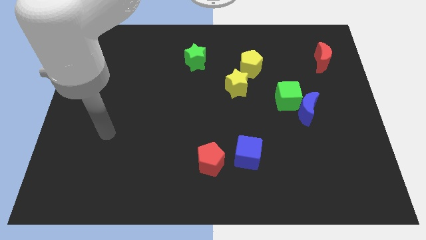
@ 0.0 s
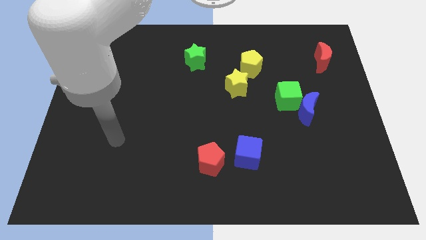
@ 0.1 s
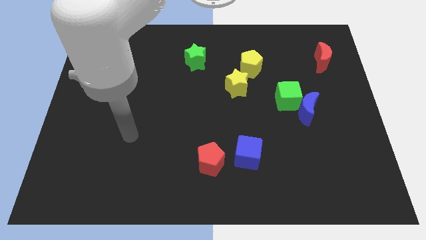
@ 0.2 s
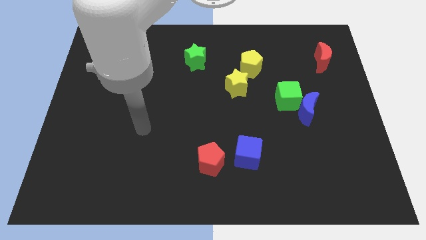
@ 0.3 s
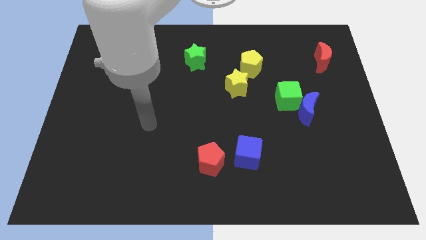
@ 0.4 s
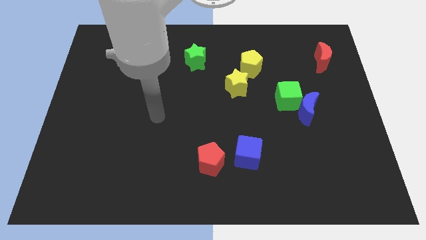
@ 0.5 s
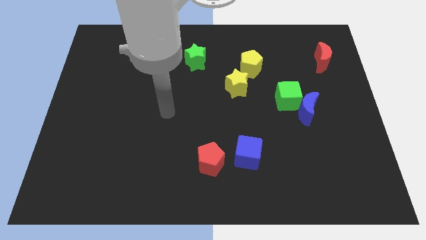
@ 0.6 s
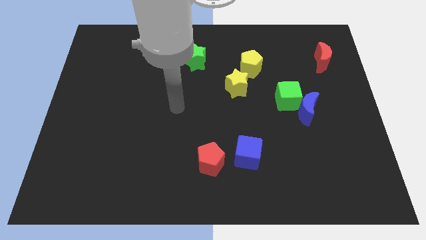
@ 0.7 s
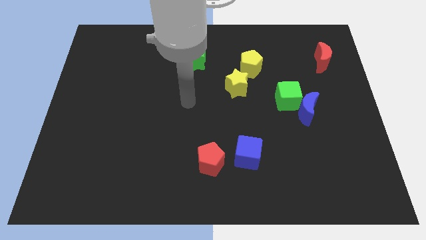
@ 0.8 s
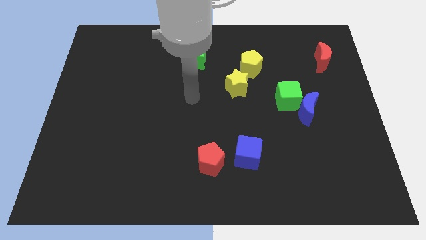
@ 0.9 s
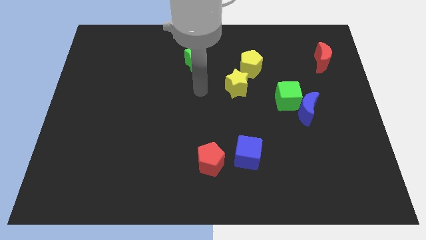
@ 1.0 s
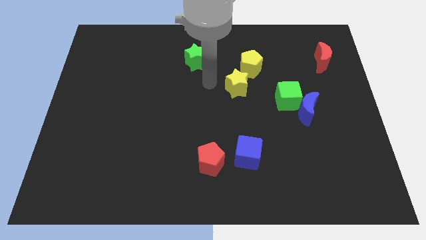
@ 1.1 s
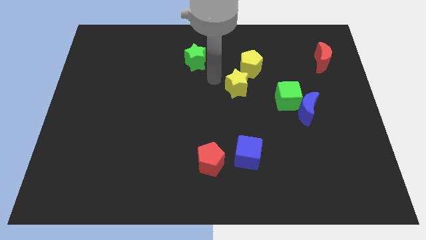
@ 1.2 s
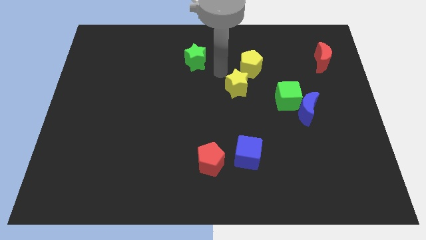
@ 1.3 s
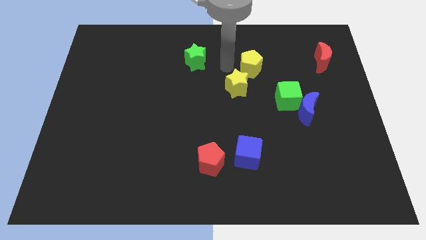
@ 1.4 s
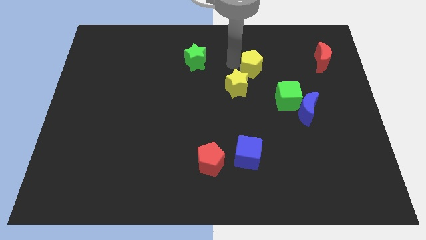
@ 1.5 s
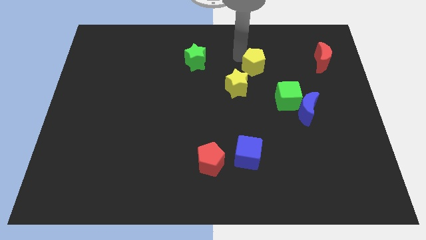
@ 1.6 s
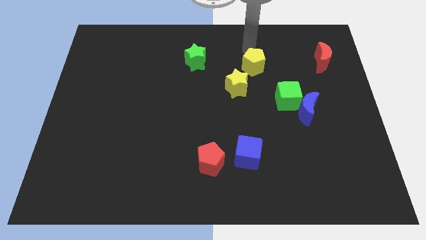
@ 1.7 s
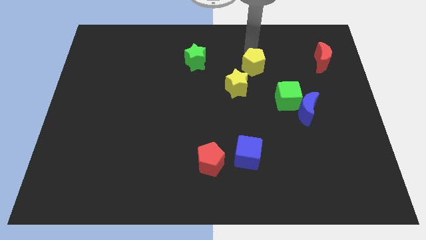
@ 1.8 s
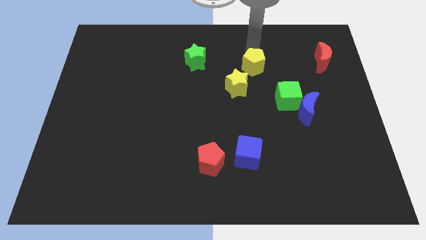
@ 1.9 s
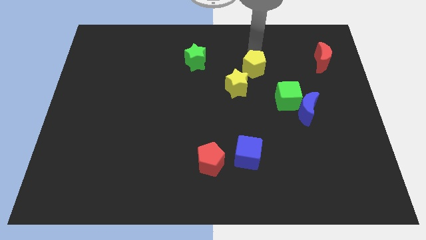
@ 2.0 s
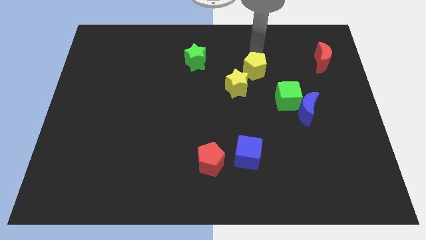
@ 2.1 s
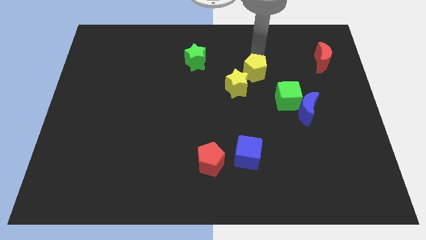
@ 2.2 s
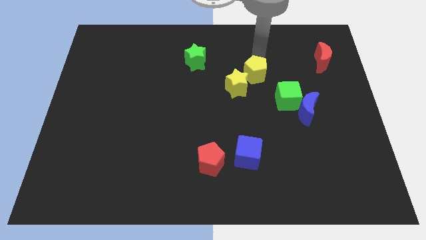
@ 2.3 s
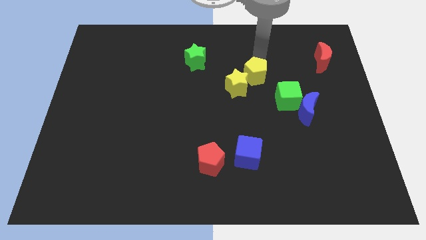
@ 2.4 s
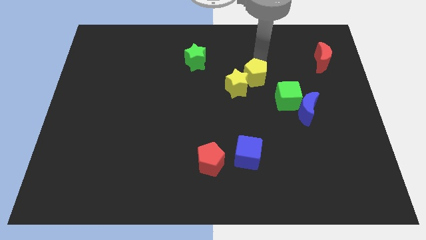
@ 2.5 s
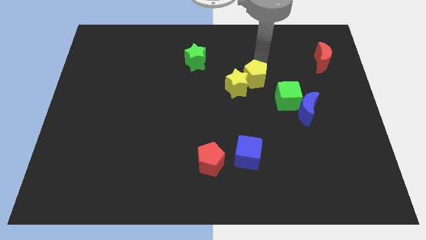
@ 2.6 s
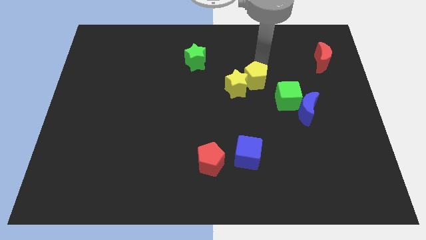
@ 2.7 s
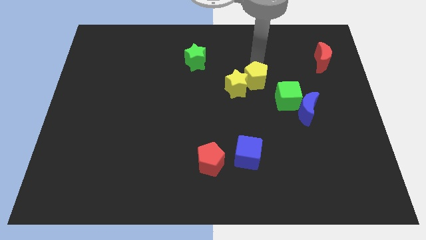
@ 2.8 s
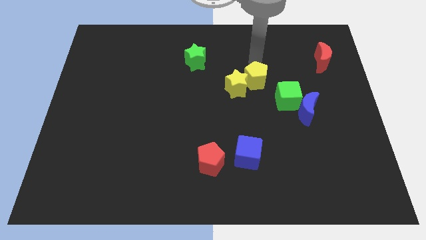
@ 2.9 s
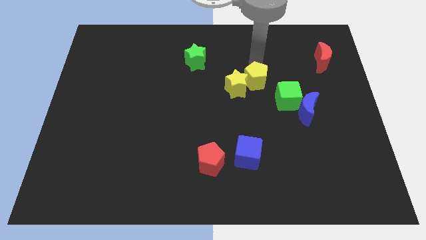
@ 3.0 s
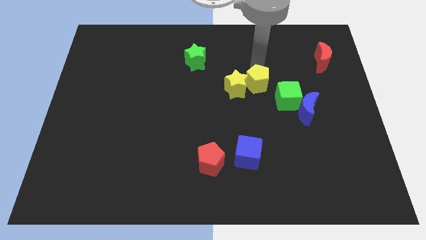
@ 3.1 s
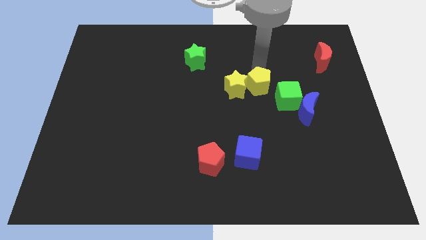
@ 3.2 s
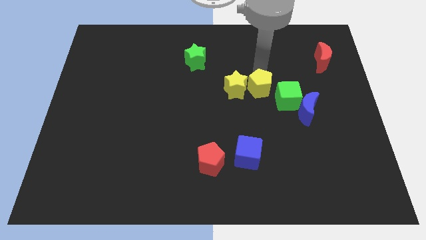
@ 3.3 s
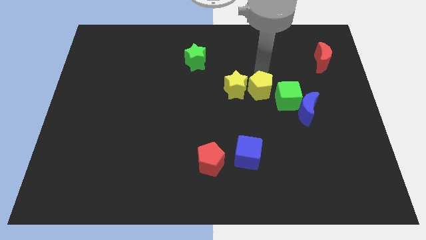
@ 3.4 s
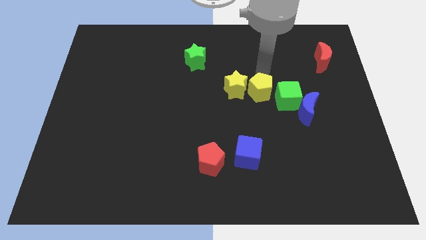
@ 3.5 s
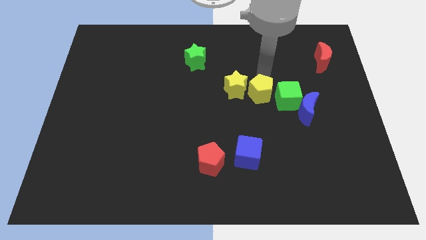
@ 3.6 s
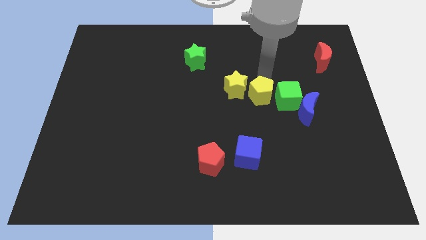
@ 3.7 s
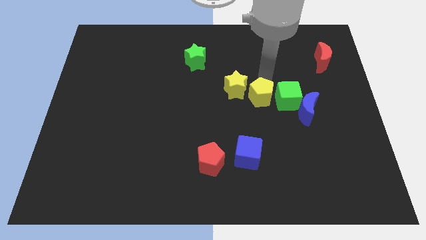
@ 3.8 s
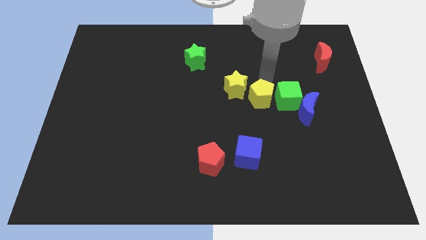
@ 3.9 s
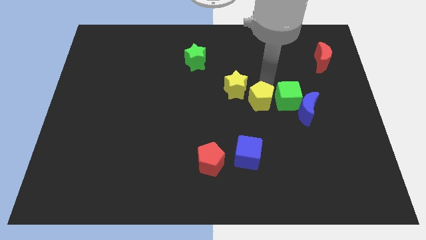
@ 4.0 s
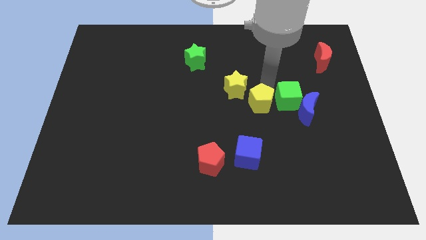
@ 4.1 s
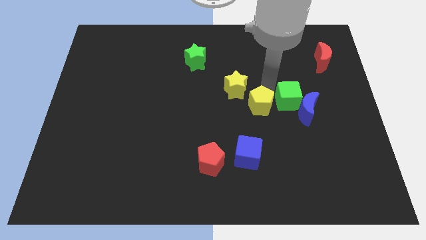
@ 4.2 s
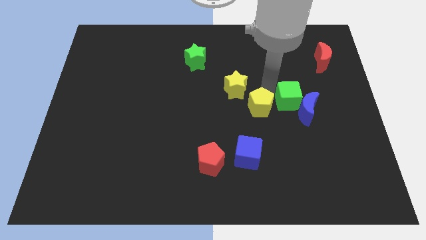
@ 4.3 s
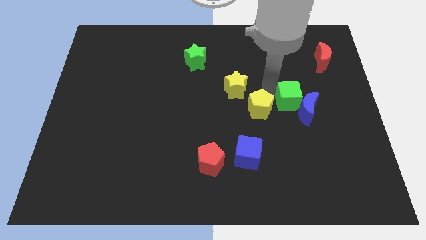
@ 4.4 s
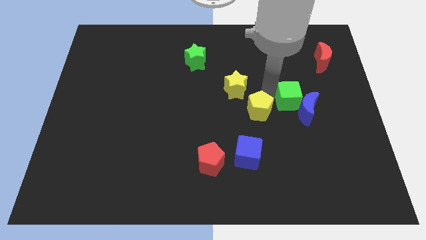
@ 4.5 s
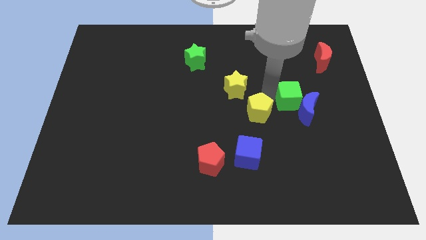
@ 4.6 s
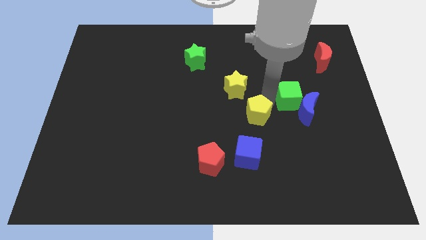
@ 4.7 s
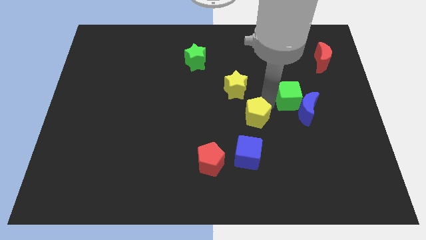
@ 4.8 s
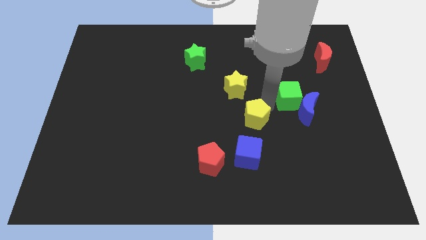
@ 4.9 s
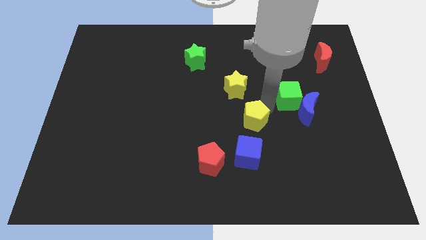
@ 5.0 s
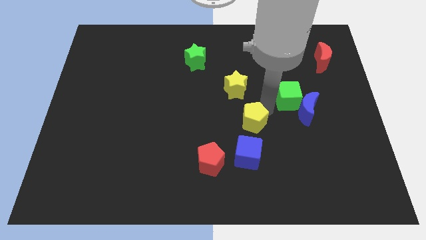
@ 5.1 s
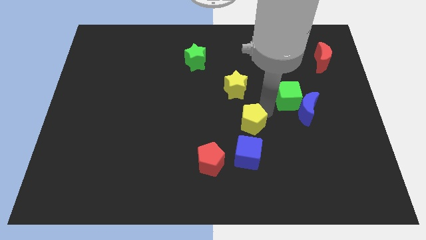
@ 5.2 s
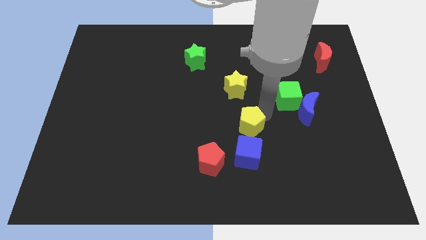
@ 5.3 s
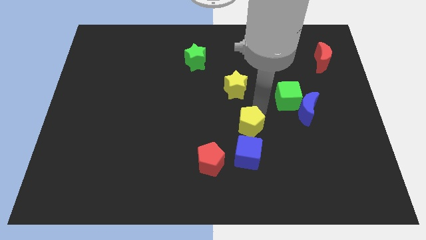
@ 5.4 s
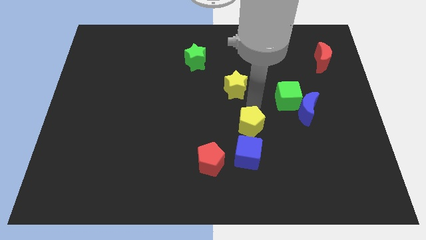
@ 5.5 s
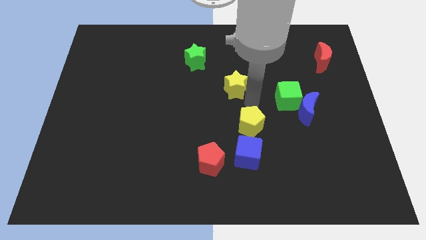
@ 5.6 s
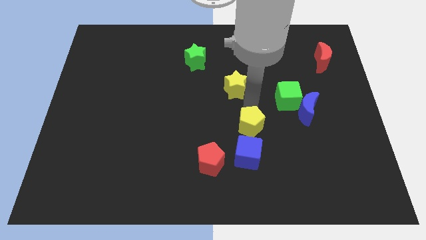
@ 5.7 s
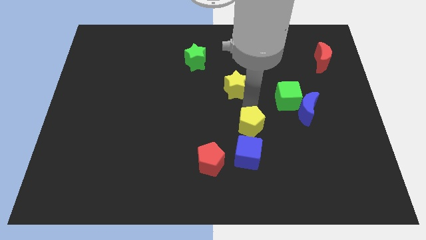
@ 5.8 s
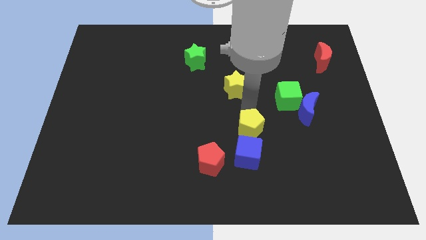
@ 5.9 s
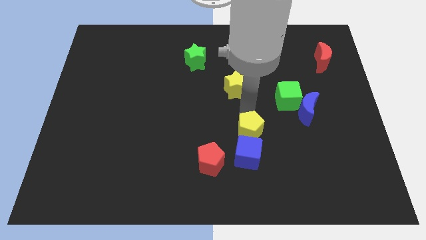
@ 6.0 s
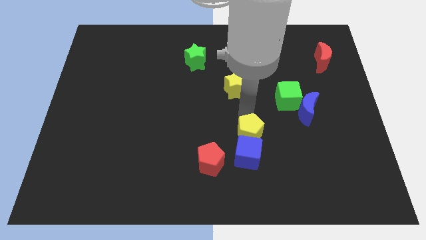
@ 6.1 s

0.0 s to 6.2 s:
put the yellow pentagon close to the blue cube
